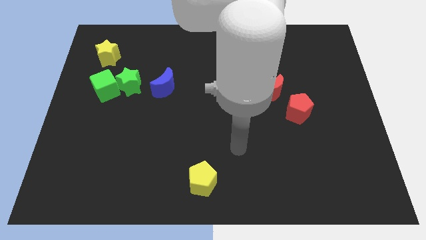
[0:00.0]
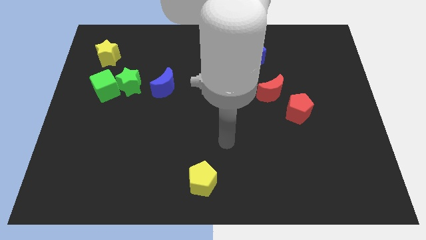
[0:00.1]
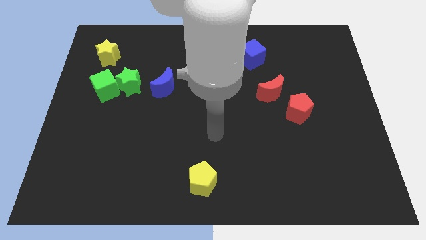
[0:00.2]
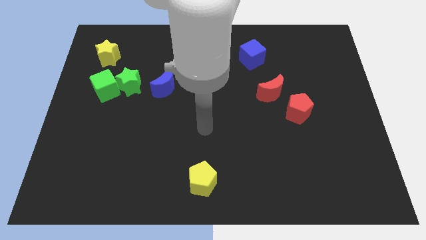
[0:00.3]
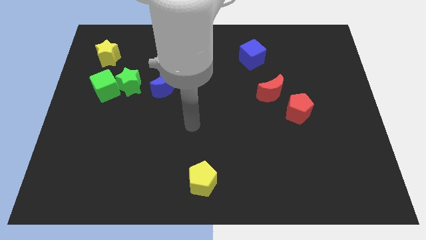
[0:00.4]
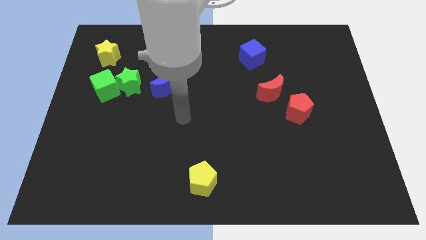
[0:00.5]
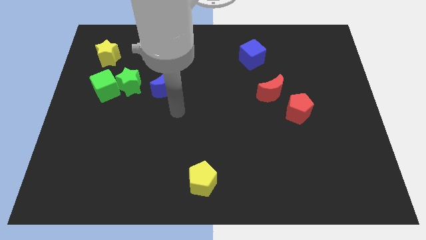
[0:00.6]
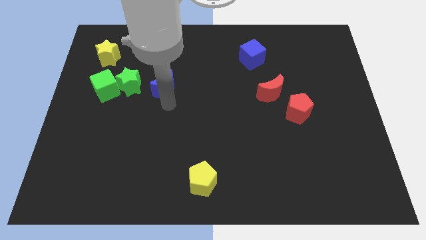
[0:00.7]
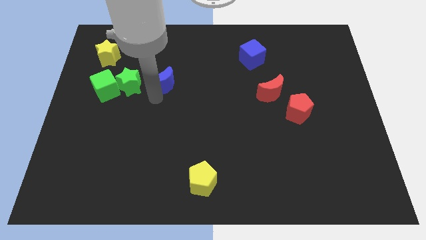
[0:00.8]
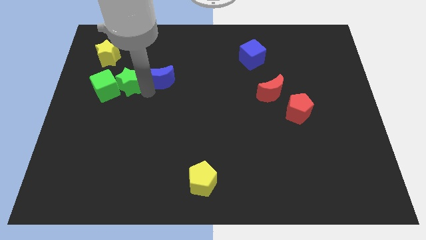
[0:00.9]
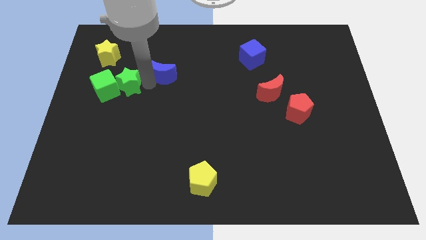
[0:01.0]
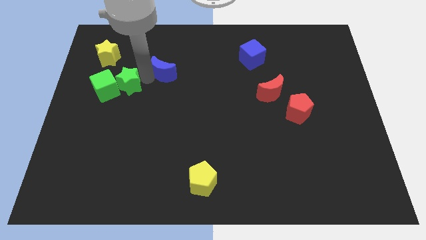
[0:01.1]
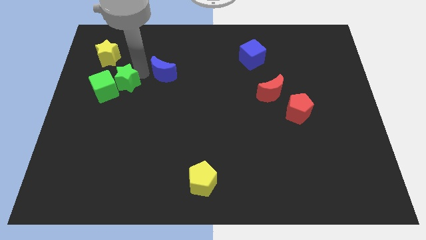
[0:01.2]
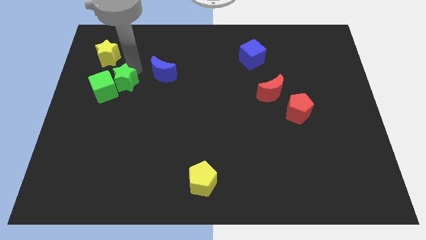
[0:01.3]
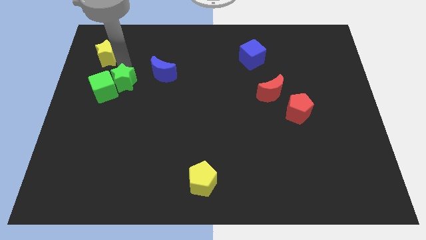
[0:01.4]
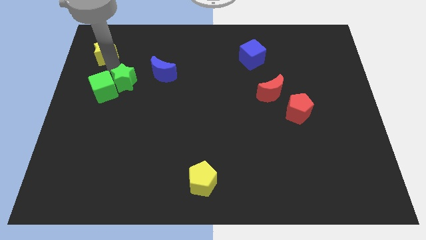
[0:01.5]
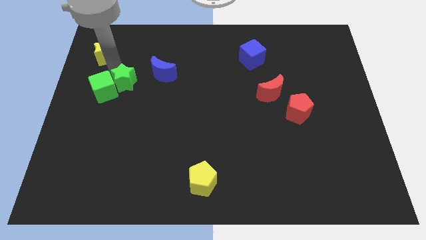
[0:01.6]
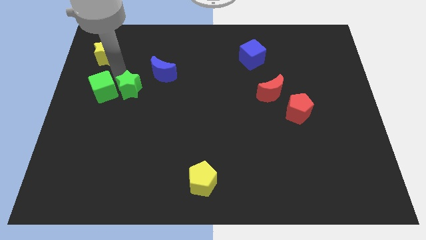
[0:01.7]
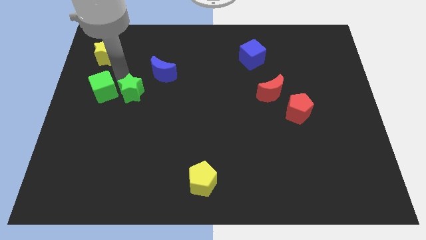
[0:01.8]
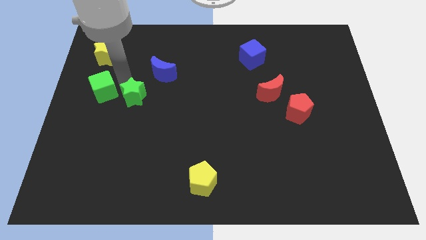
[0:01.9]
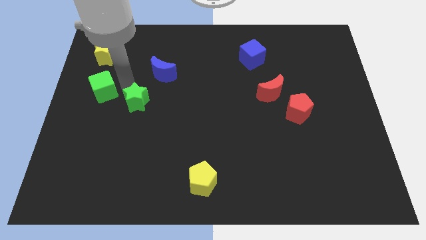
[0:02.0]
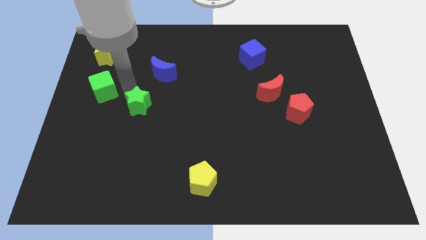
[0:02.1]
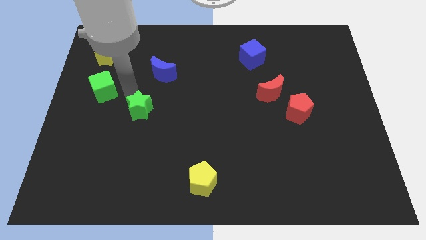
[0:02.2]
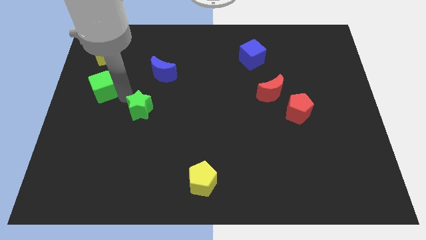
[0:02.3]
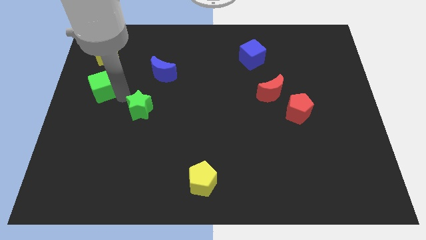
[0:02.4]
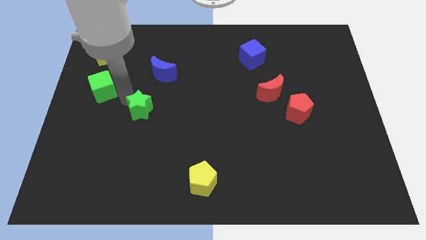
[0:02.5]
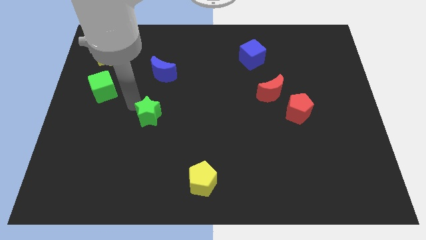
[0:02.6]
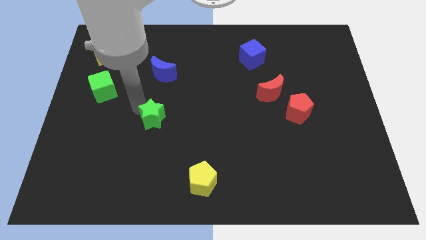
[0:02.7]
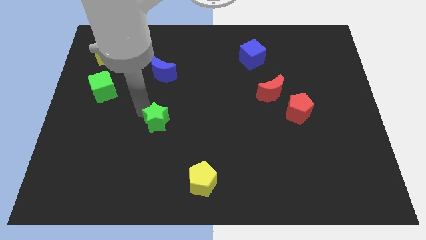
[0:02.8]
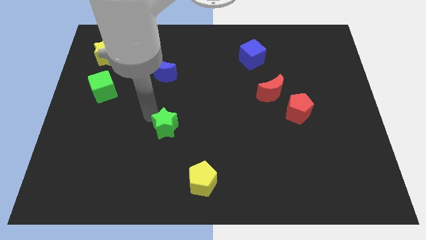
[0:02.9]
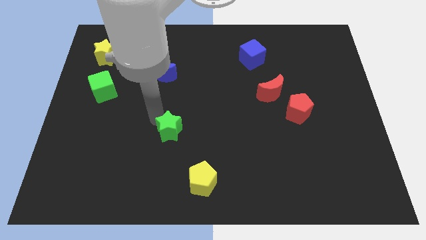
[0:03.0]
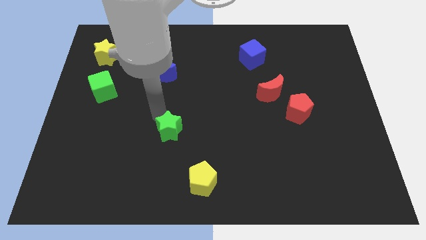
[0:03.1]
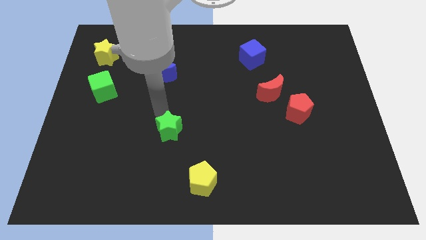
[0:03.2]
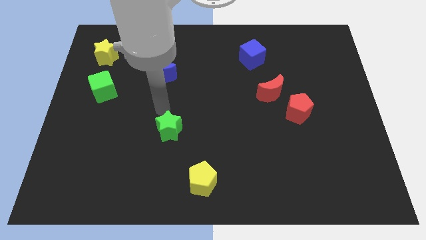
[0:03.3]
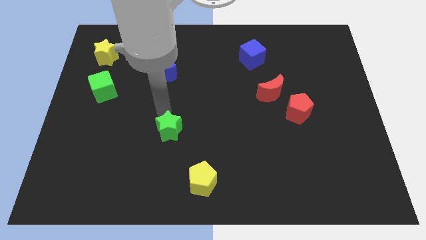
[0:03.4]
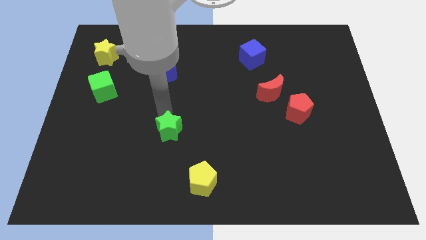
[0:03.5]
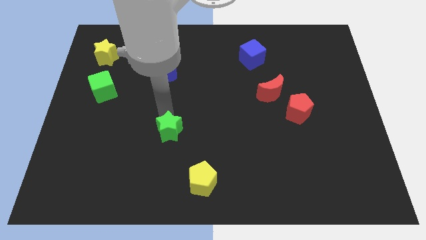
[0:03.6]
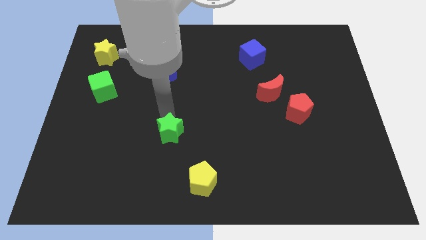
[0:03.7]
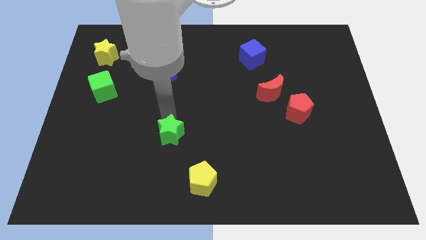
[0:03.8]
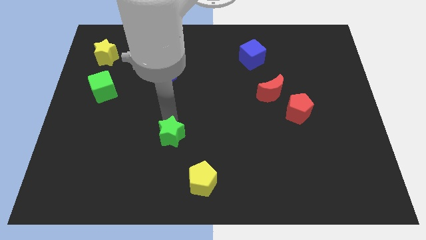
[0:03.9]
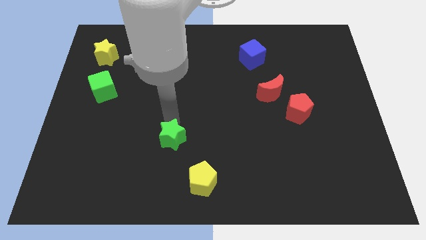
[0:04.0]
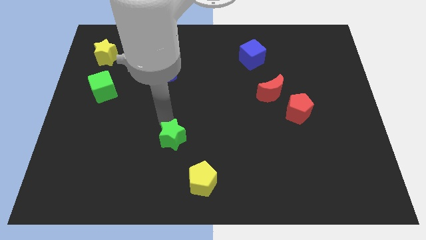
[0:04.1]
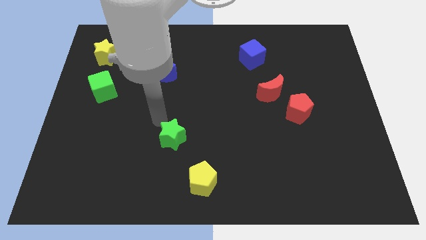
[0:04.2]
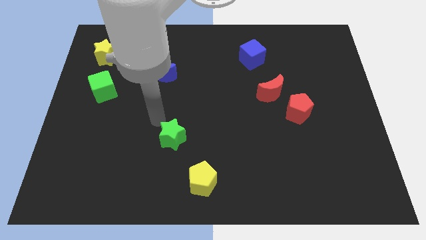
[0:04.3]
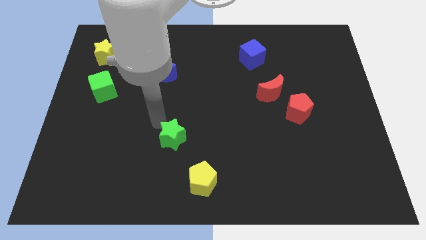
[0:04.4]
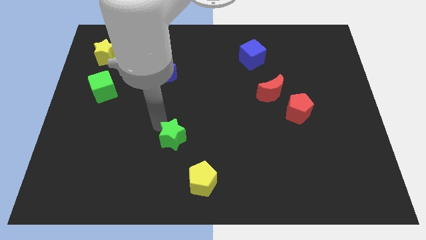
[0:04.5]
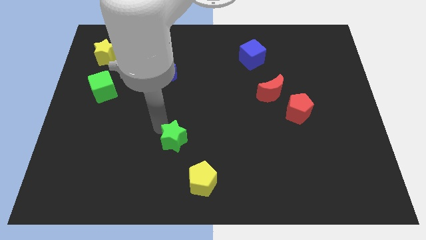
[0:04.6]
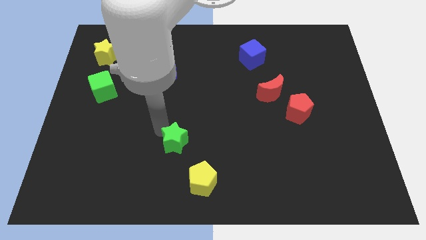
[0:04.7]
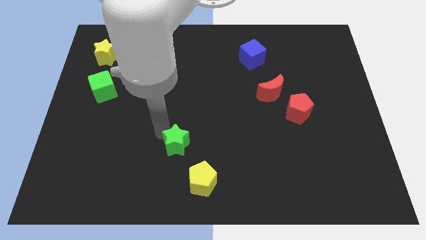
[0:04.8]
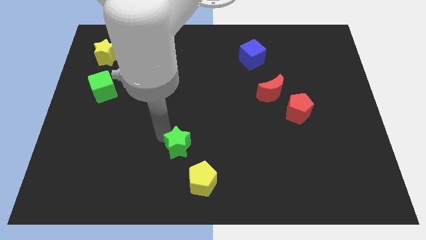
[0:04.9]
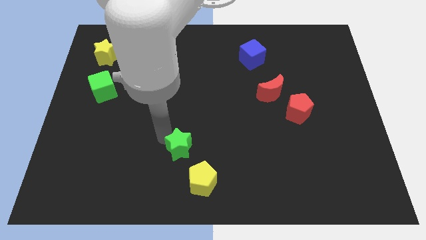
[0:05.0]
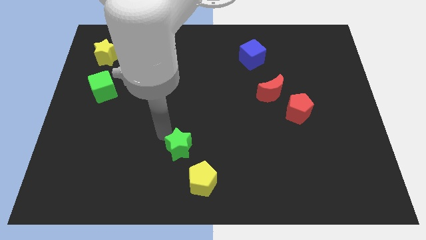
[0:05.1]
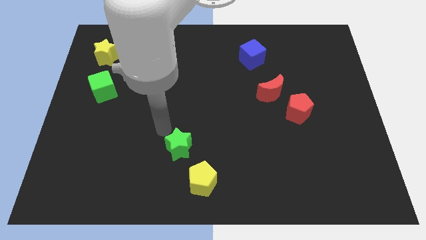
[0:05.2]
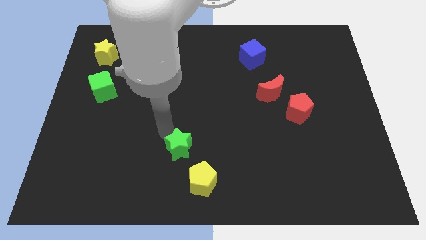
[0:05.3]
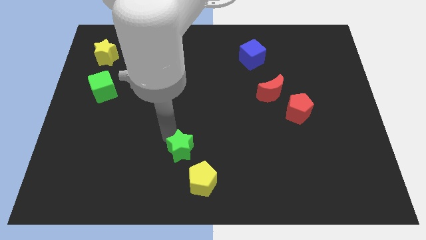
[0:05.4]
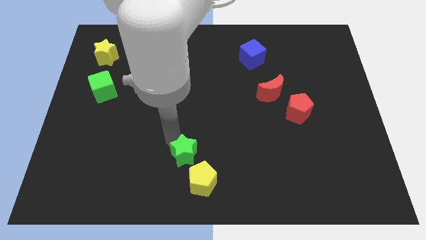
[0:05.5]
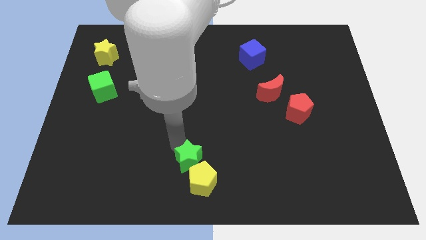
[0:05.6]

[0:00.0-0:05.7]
push the green star to the yellow pentagon

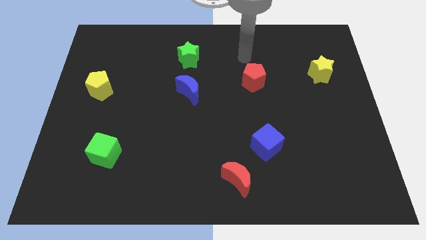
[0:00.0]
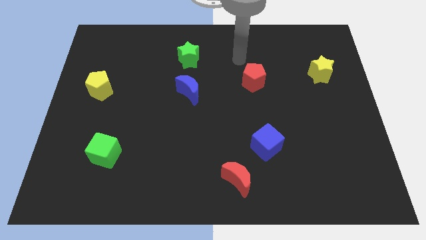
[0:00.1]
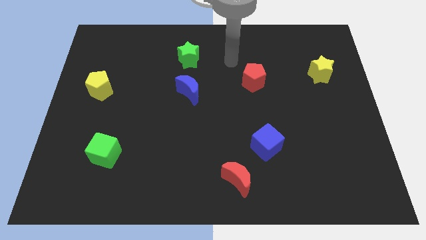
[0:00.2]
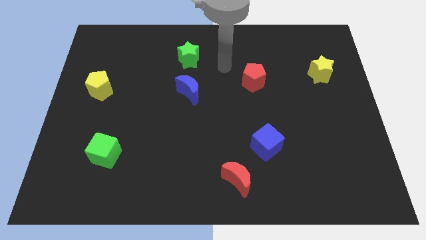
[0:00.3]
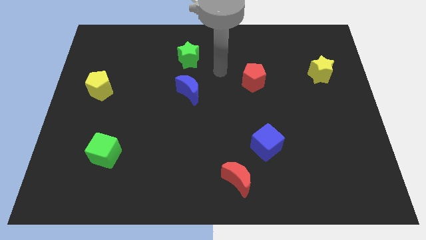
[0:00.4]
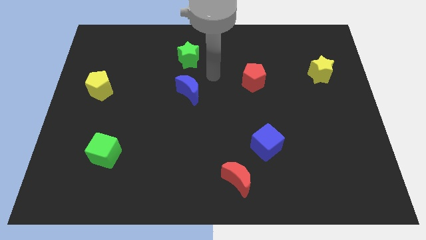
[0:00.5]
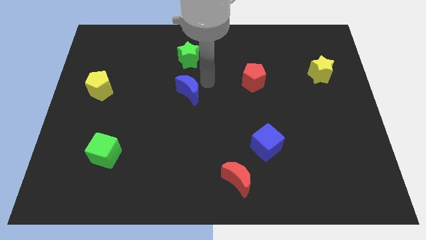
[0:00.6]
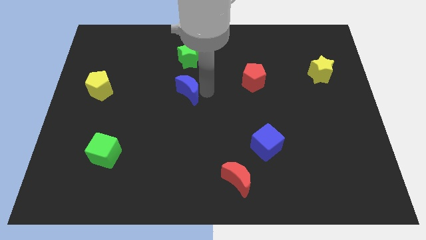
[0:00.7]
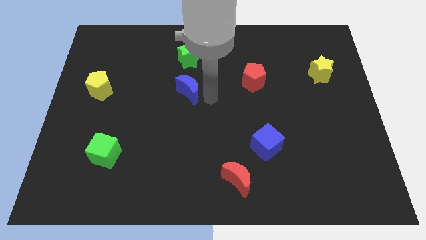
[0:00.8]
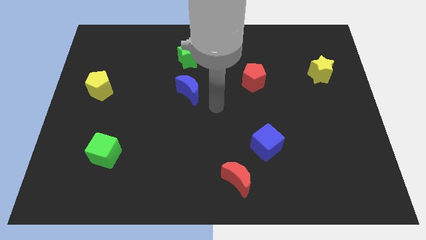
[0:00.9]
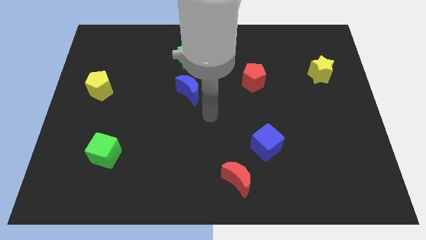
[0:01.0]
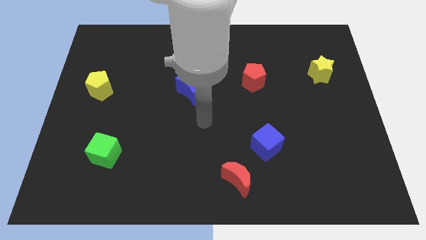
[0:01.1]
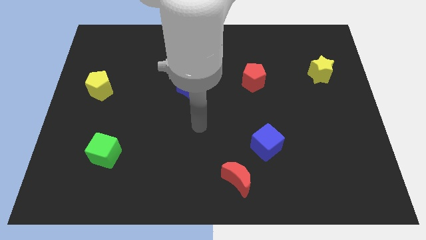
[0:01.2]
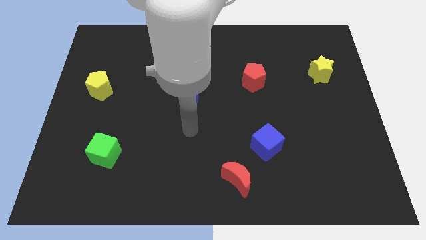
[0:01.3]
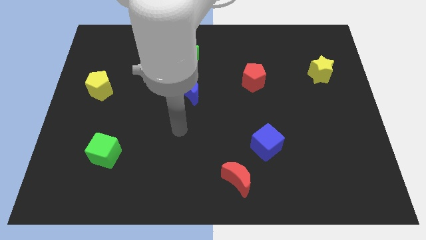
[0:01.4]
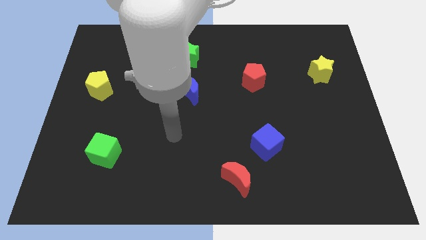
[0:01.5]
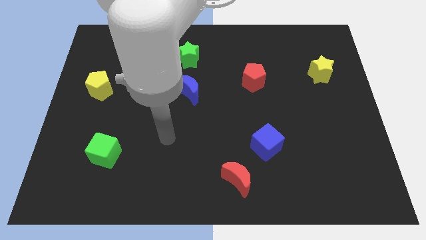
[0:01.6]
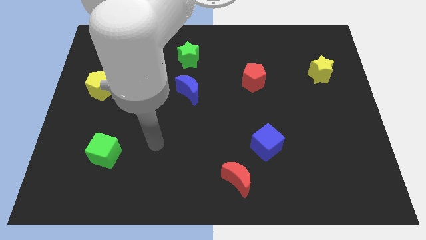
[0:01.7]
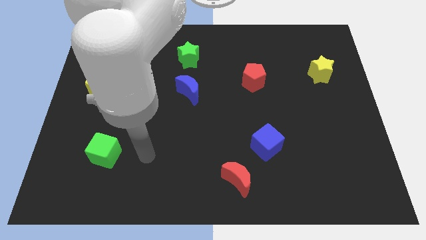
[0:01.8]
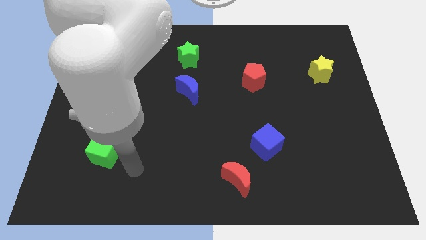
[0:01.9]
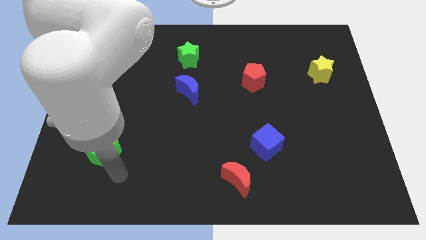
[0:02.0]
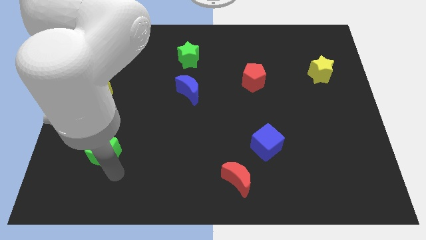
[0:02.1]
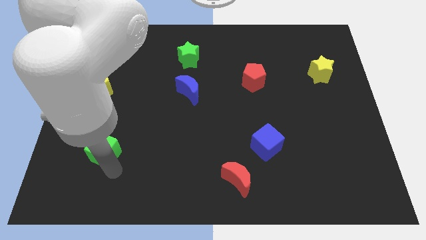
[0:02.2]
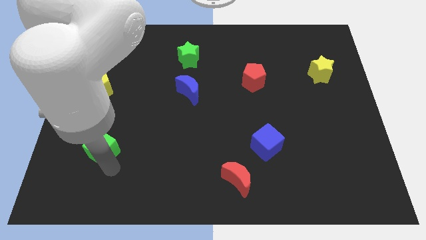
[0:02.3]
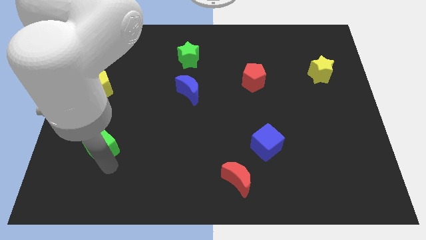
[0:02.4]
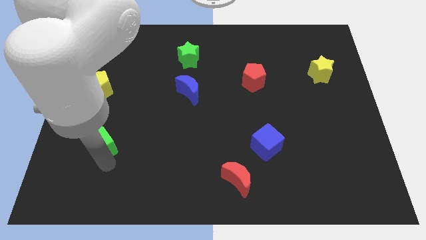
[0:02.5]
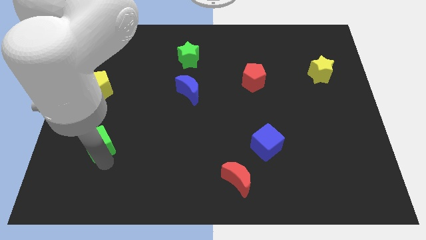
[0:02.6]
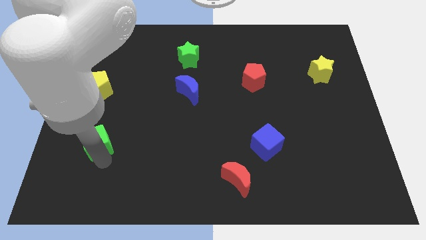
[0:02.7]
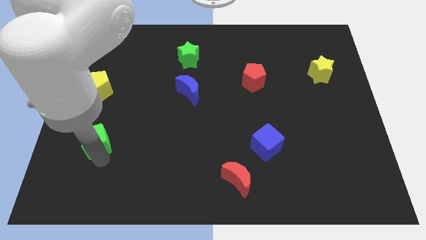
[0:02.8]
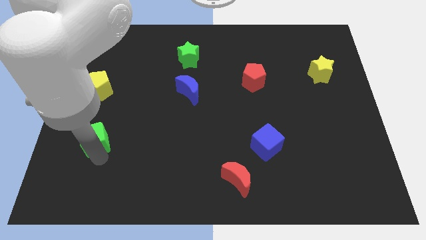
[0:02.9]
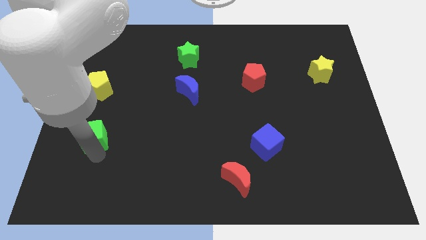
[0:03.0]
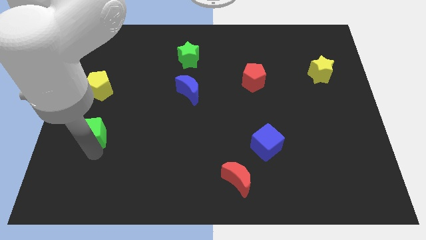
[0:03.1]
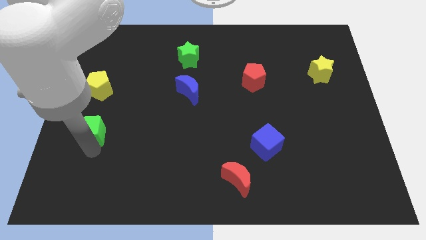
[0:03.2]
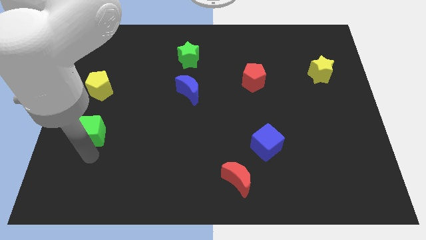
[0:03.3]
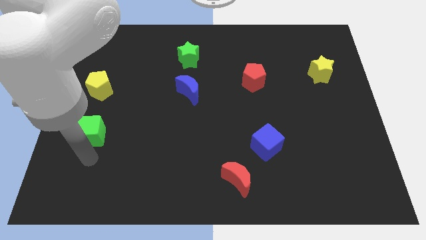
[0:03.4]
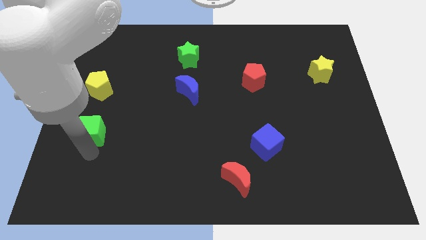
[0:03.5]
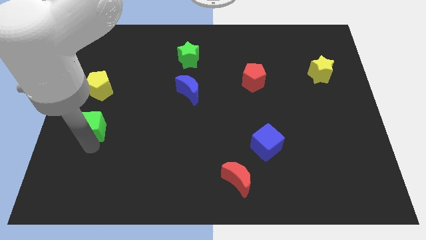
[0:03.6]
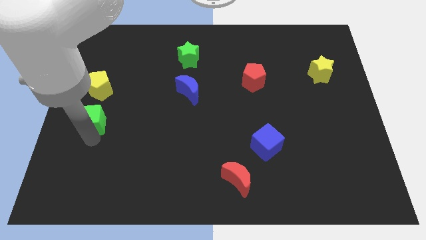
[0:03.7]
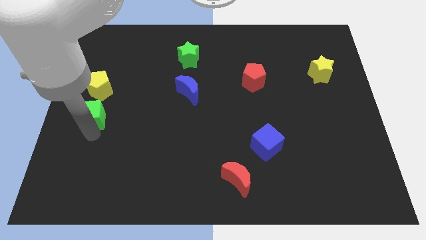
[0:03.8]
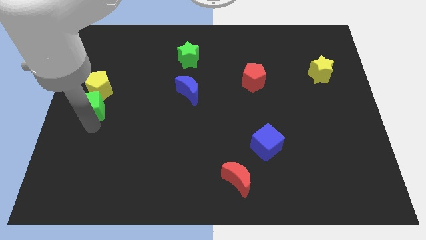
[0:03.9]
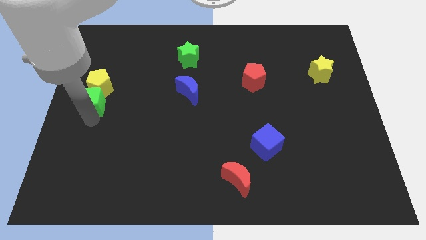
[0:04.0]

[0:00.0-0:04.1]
put the green cube close to the yellow pentagon
